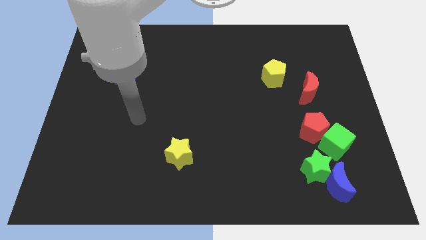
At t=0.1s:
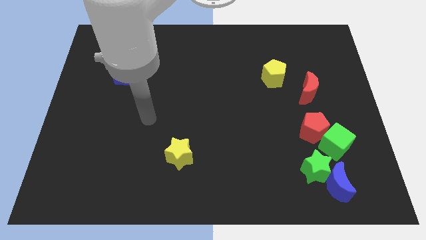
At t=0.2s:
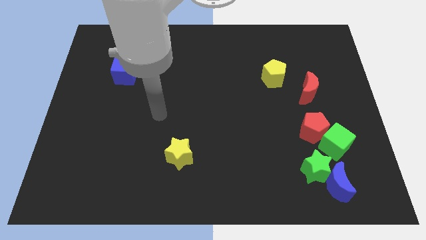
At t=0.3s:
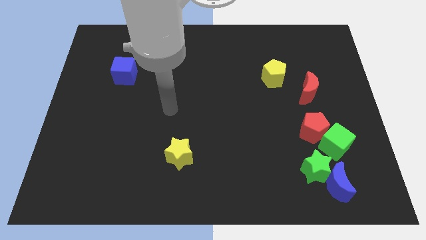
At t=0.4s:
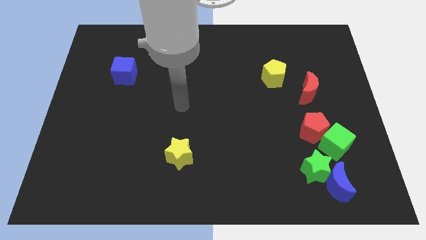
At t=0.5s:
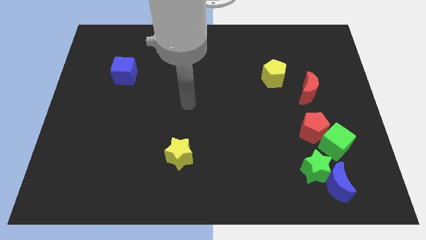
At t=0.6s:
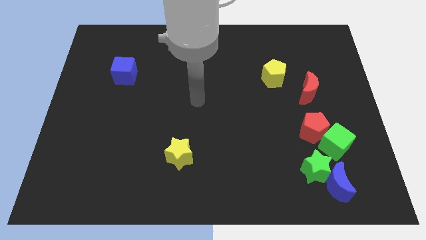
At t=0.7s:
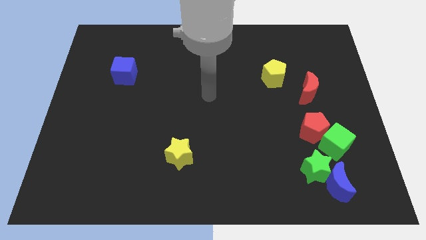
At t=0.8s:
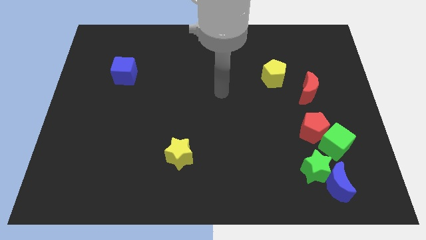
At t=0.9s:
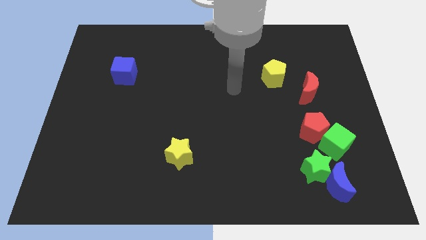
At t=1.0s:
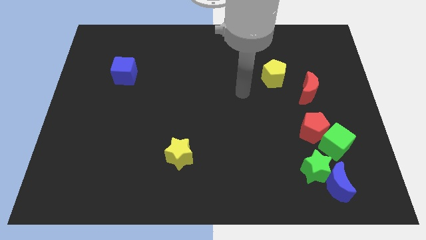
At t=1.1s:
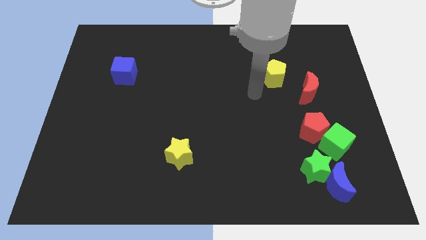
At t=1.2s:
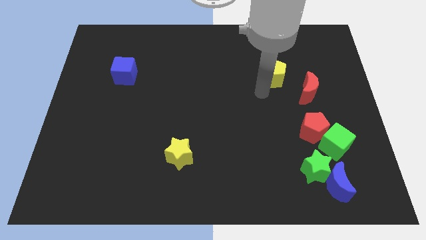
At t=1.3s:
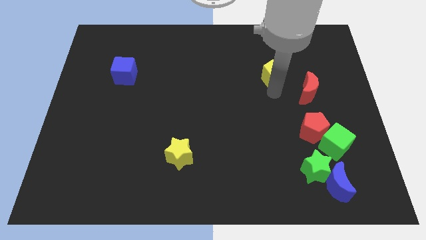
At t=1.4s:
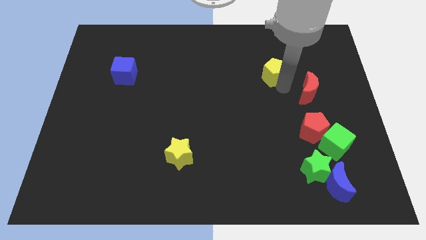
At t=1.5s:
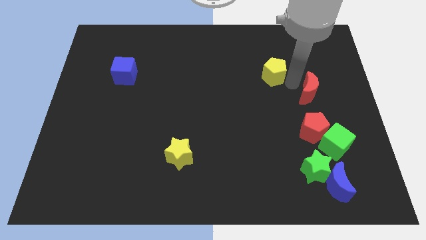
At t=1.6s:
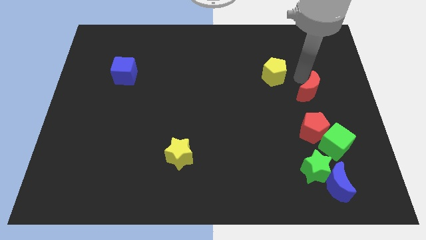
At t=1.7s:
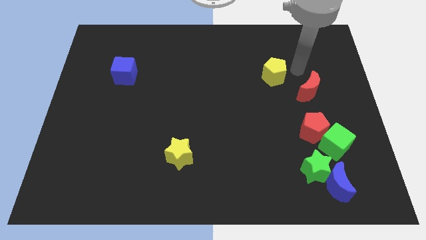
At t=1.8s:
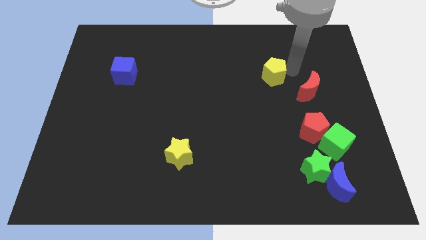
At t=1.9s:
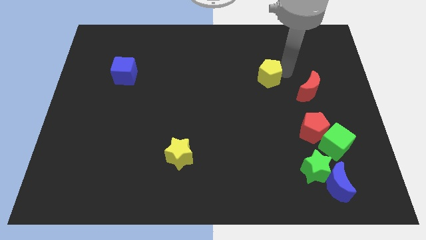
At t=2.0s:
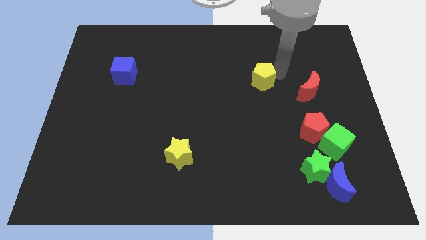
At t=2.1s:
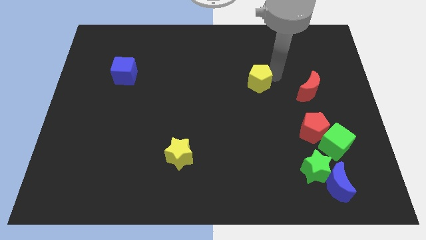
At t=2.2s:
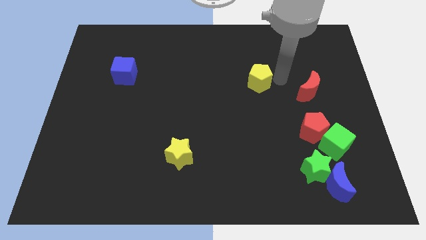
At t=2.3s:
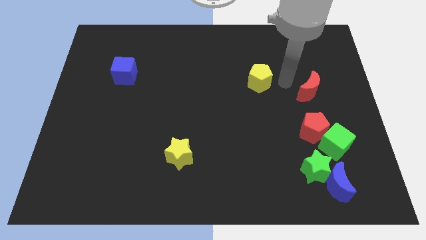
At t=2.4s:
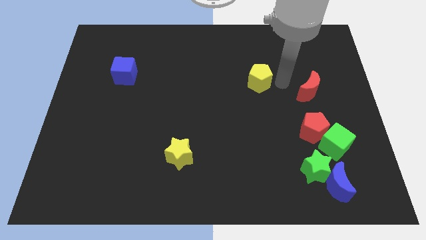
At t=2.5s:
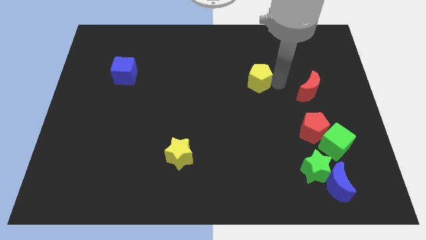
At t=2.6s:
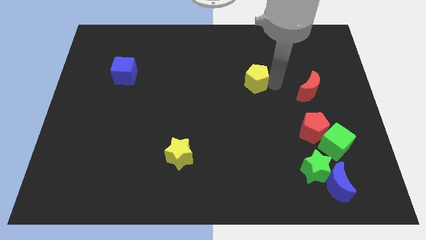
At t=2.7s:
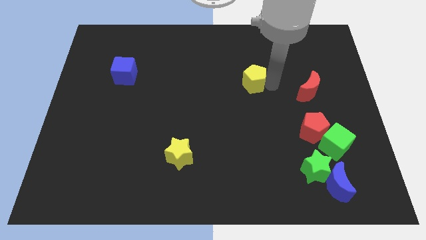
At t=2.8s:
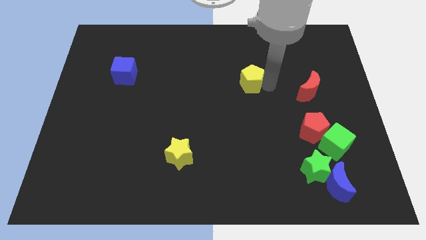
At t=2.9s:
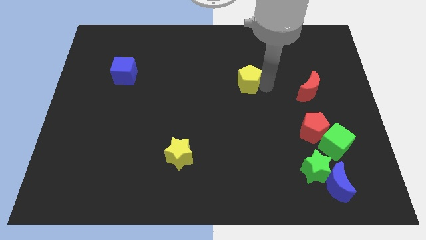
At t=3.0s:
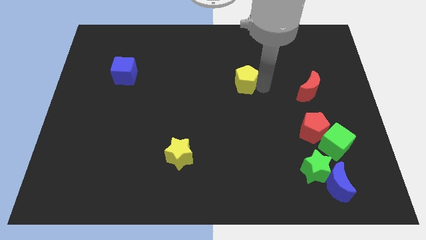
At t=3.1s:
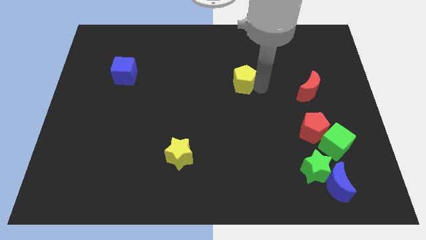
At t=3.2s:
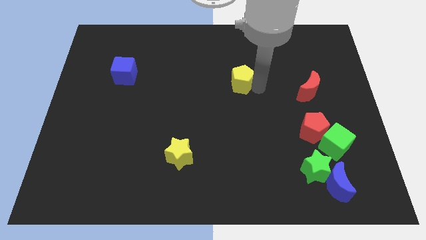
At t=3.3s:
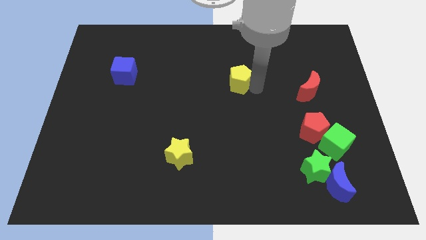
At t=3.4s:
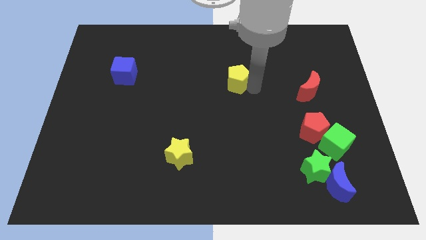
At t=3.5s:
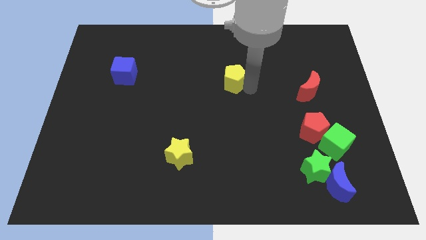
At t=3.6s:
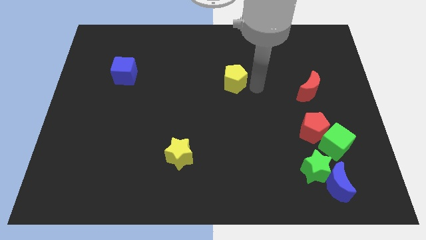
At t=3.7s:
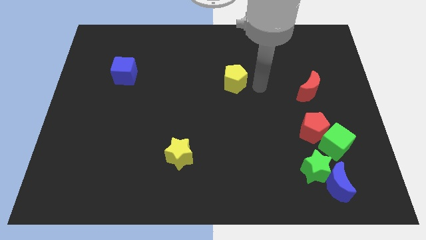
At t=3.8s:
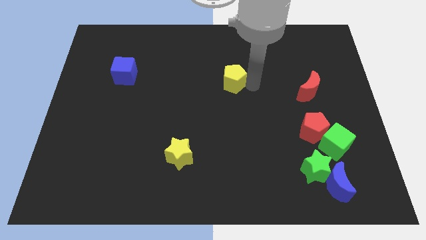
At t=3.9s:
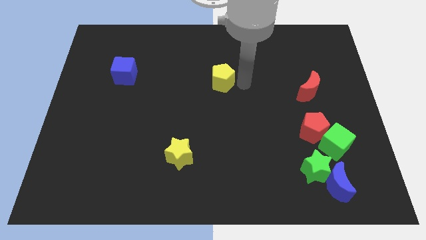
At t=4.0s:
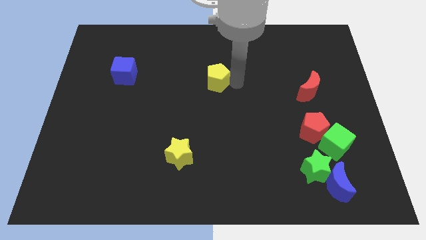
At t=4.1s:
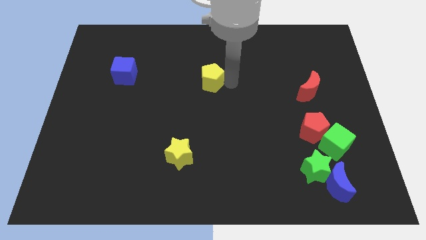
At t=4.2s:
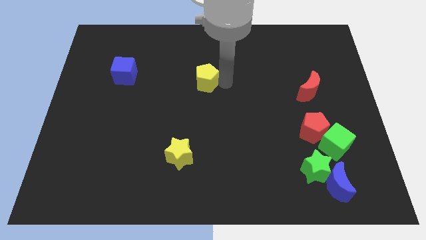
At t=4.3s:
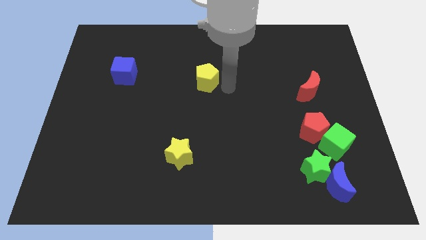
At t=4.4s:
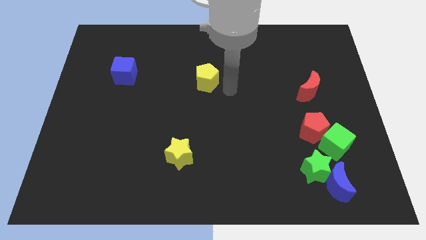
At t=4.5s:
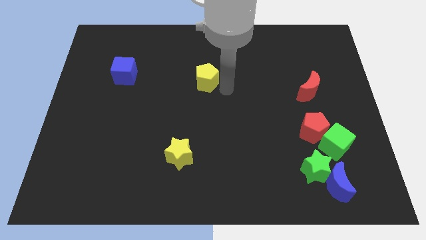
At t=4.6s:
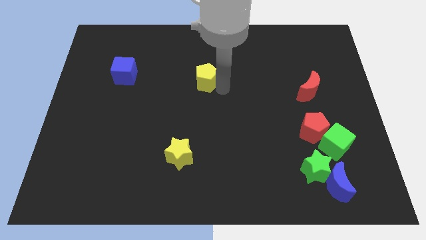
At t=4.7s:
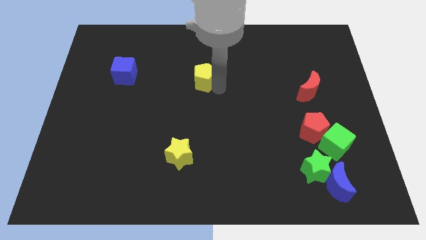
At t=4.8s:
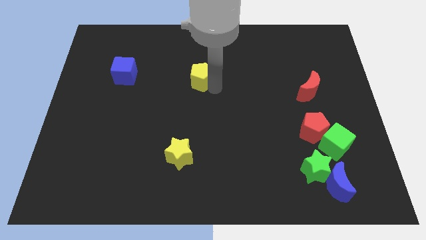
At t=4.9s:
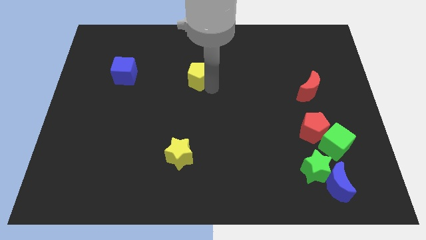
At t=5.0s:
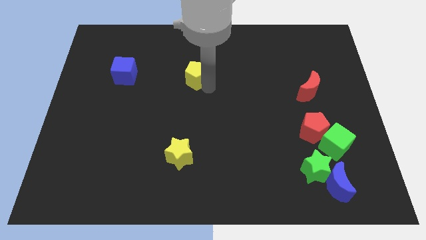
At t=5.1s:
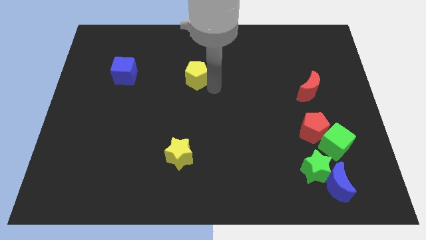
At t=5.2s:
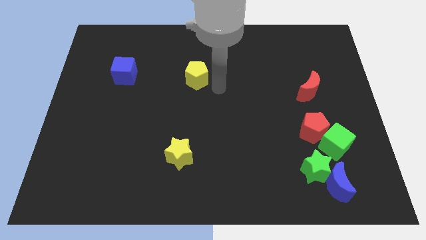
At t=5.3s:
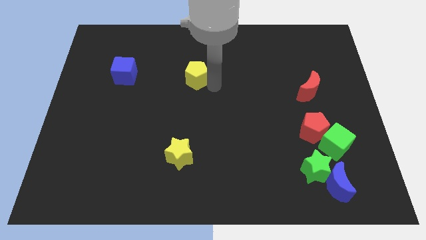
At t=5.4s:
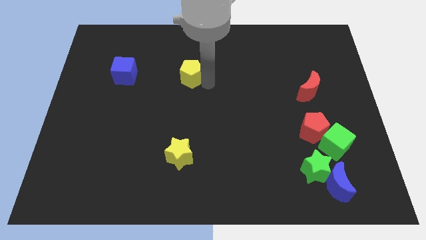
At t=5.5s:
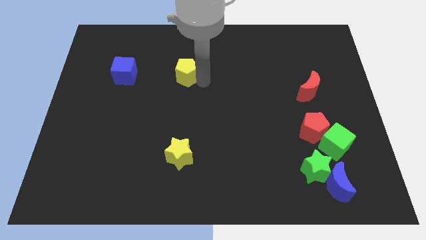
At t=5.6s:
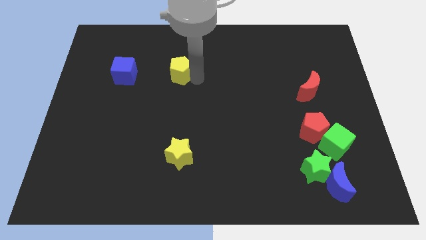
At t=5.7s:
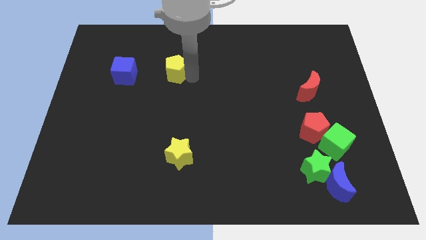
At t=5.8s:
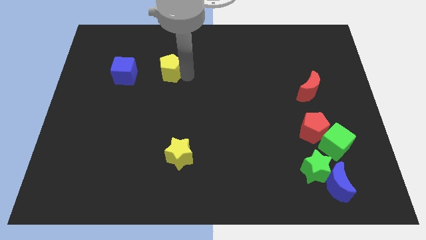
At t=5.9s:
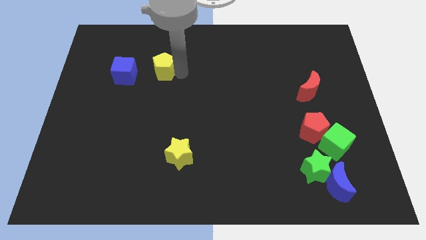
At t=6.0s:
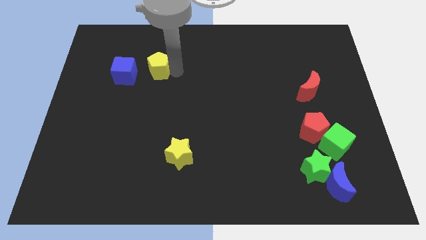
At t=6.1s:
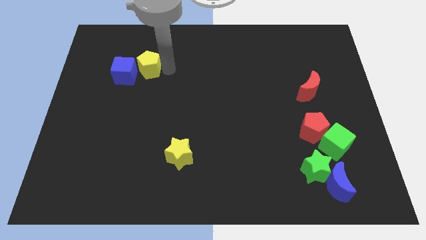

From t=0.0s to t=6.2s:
slide the yellow pentagon to the blue cube

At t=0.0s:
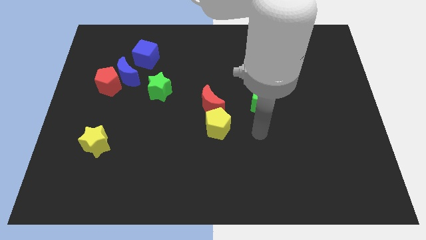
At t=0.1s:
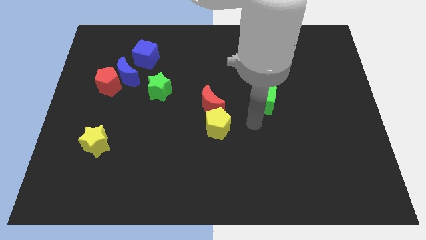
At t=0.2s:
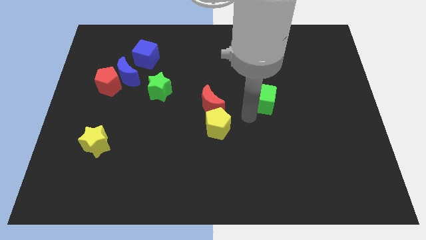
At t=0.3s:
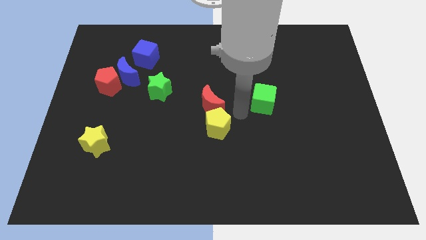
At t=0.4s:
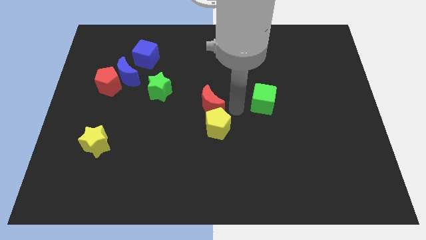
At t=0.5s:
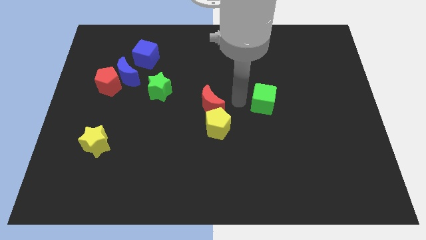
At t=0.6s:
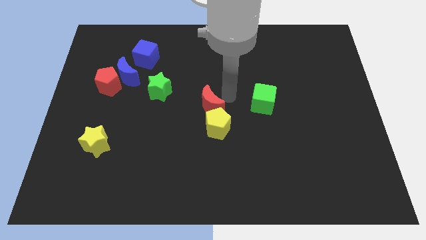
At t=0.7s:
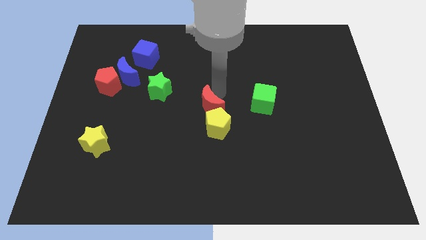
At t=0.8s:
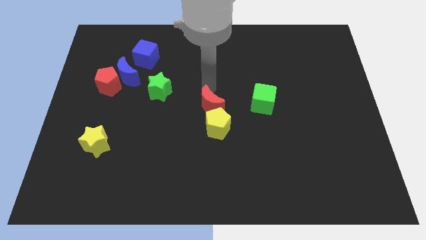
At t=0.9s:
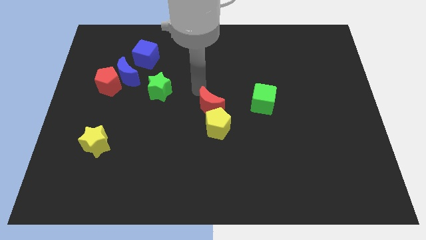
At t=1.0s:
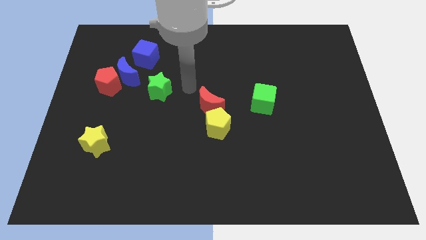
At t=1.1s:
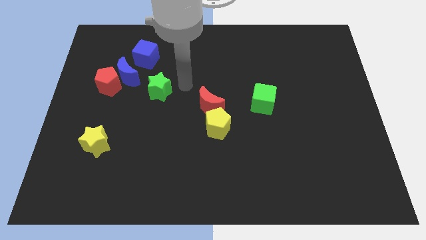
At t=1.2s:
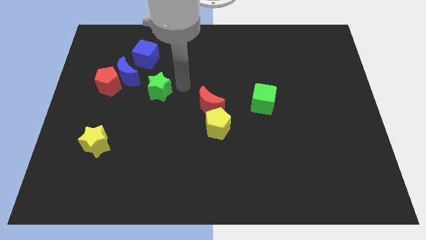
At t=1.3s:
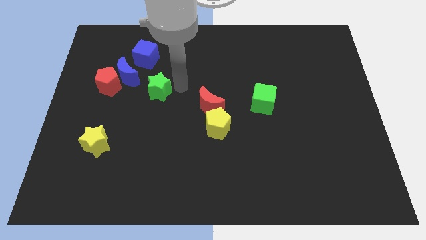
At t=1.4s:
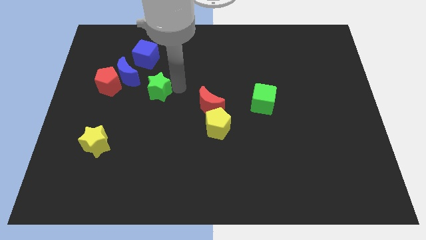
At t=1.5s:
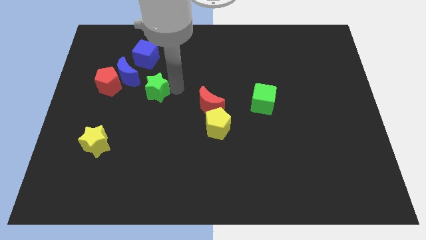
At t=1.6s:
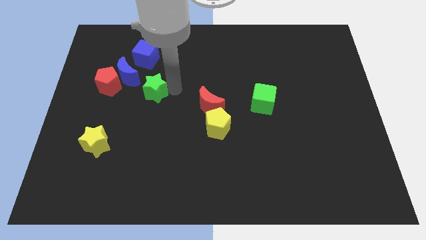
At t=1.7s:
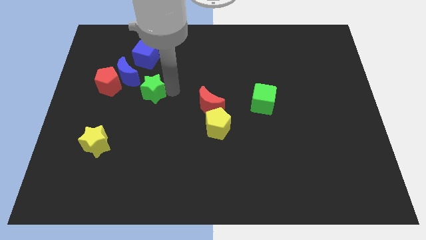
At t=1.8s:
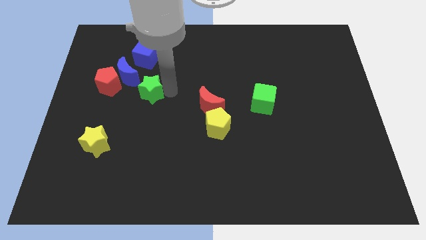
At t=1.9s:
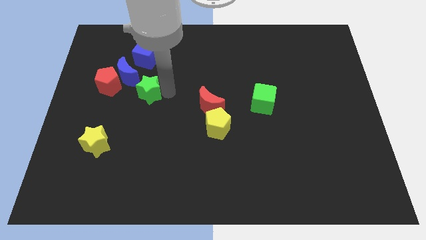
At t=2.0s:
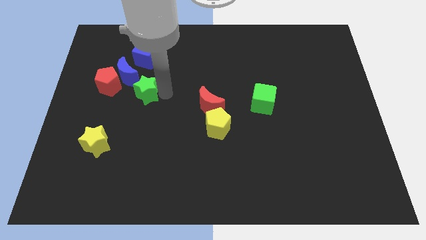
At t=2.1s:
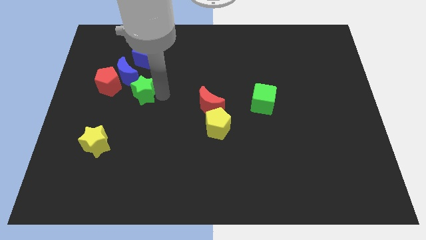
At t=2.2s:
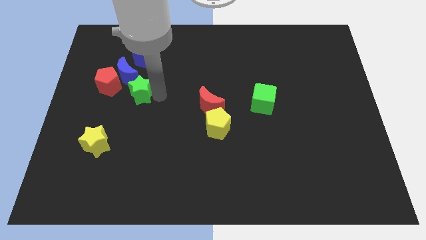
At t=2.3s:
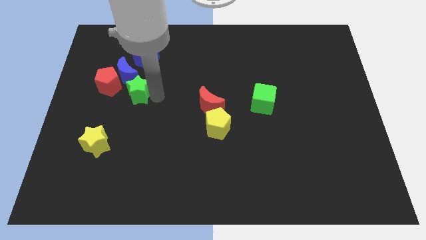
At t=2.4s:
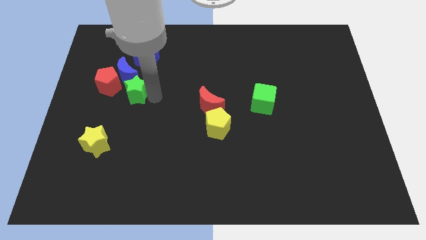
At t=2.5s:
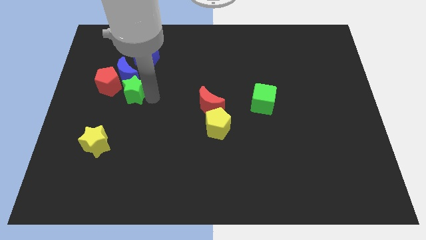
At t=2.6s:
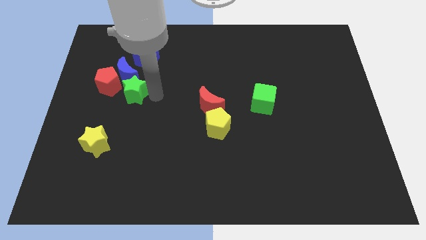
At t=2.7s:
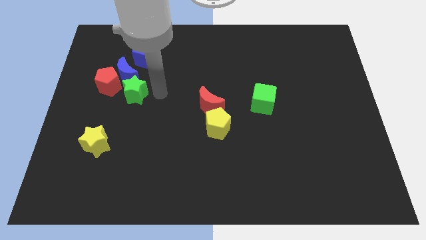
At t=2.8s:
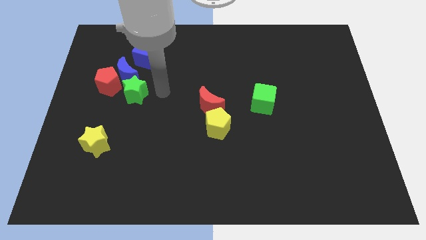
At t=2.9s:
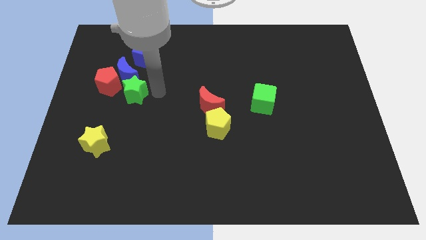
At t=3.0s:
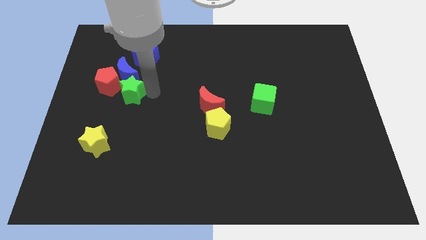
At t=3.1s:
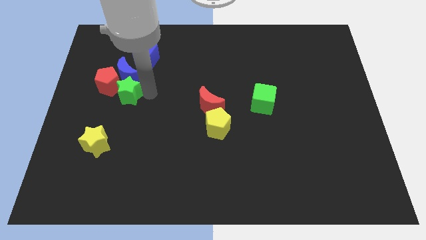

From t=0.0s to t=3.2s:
move the green star to the red pentagon
